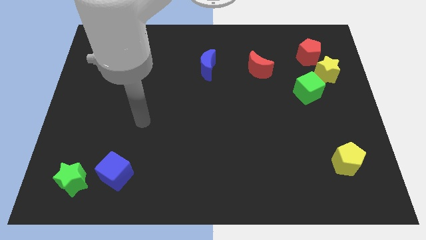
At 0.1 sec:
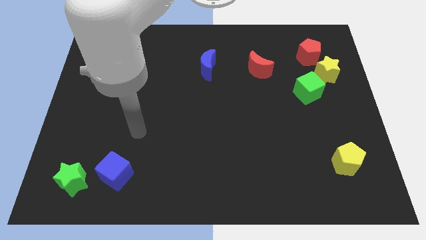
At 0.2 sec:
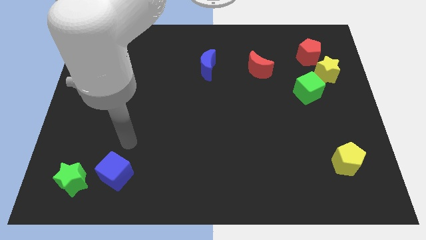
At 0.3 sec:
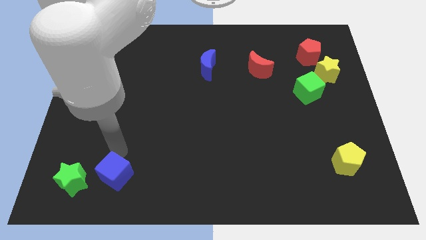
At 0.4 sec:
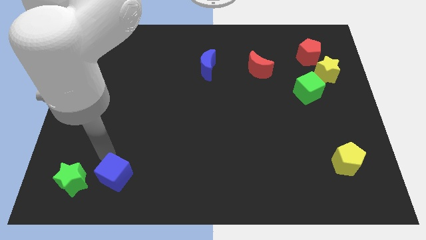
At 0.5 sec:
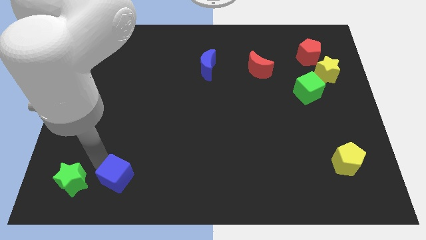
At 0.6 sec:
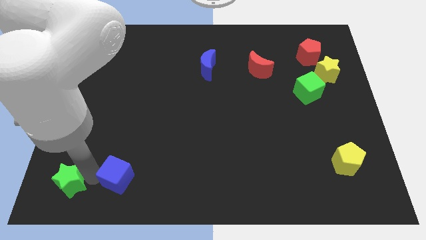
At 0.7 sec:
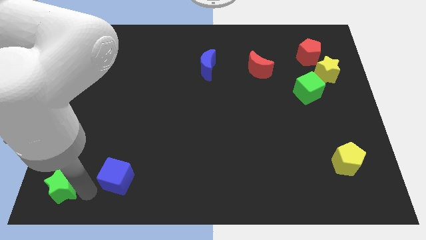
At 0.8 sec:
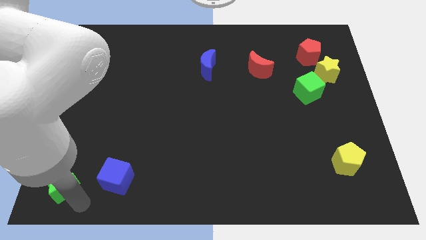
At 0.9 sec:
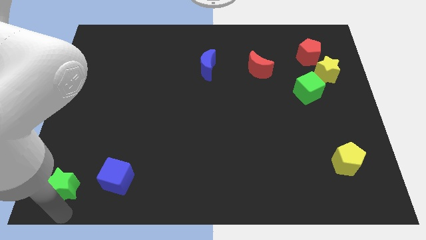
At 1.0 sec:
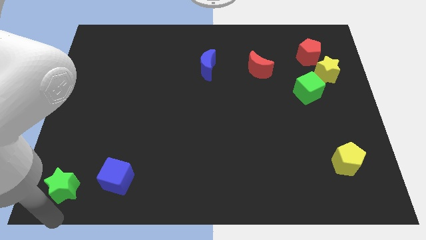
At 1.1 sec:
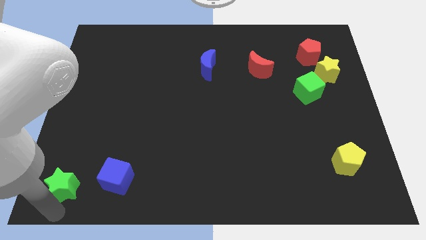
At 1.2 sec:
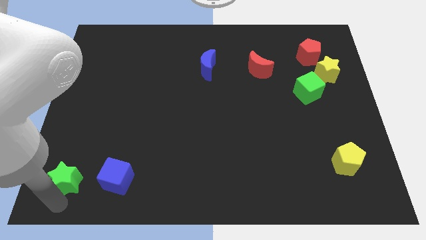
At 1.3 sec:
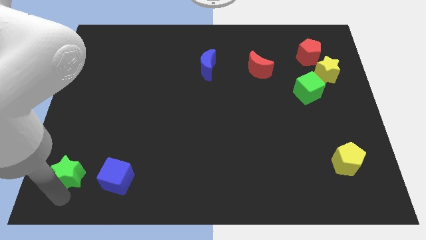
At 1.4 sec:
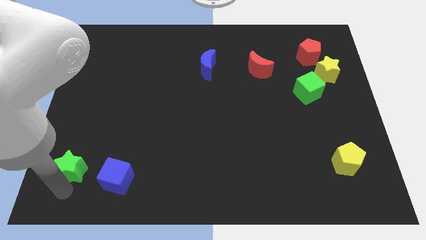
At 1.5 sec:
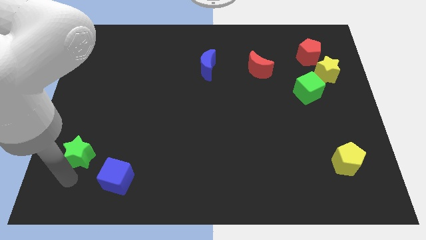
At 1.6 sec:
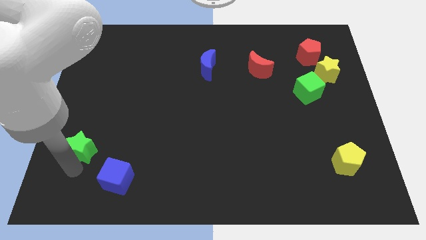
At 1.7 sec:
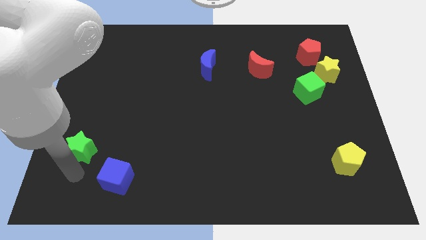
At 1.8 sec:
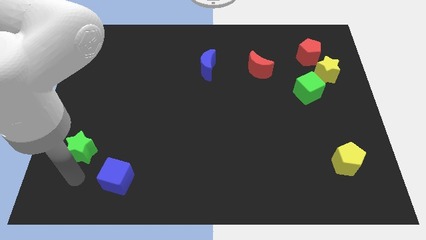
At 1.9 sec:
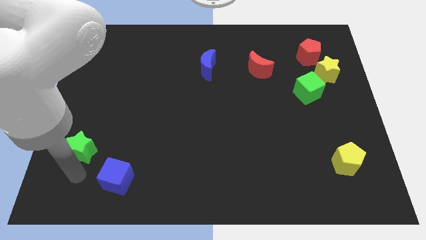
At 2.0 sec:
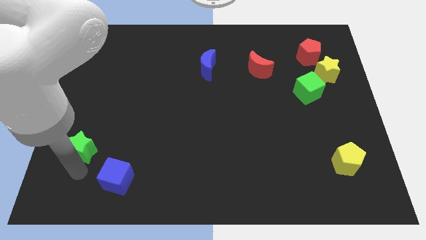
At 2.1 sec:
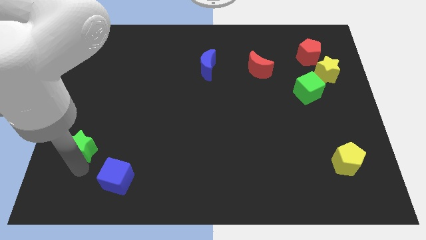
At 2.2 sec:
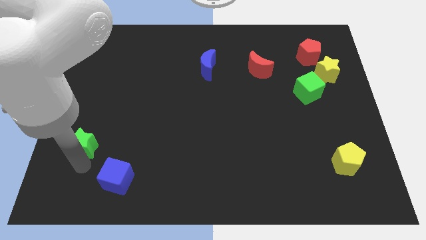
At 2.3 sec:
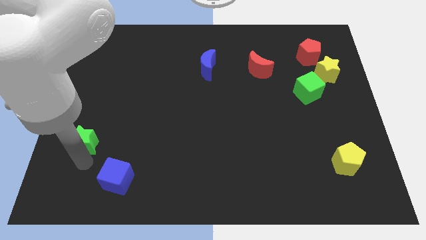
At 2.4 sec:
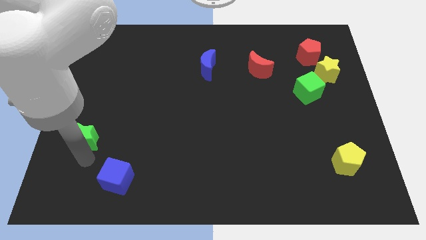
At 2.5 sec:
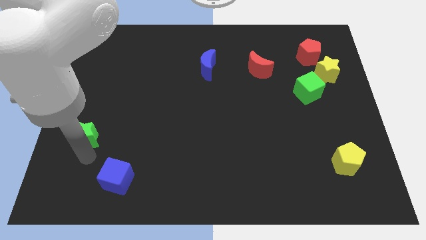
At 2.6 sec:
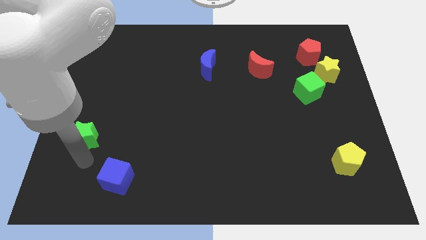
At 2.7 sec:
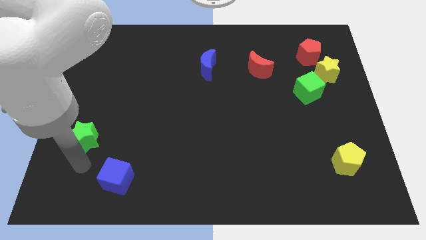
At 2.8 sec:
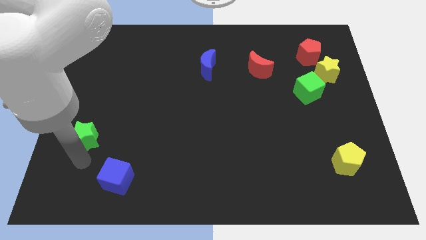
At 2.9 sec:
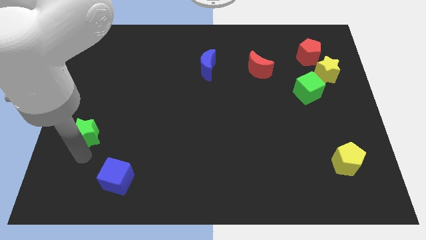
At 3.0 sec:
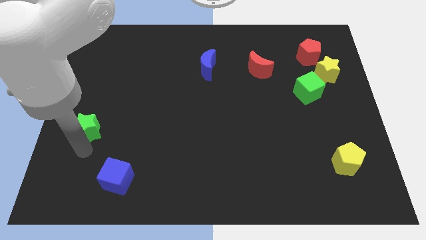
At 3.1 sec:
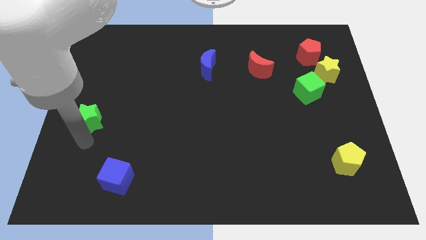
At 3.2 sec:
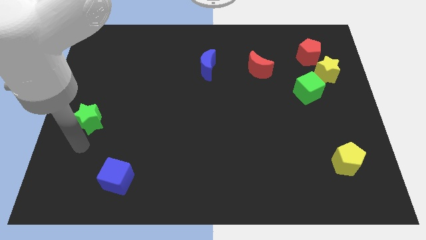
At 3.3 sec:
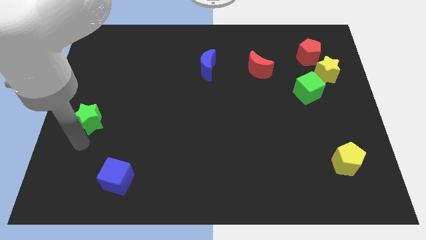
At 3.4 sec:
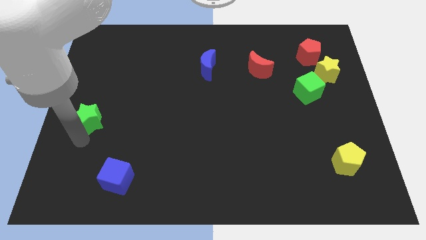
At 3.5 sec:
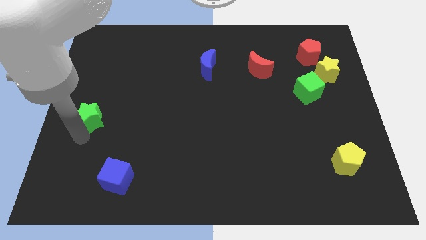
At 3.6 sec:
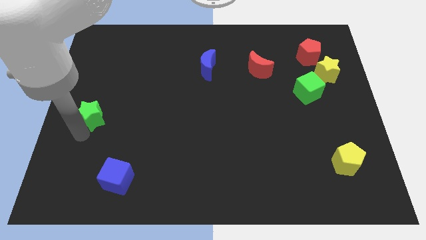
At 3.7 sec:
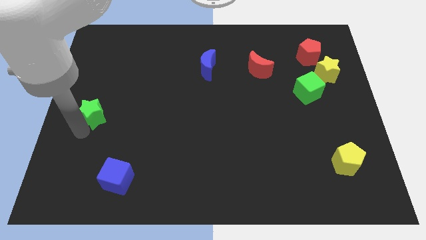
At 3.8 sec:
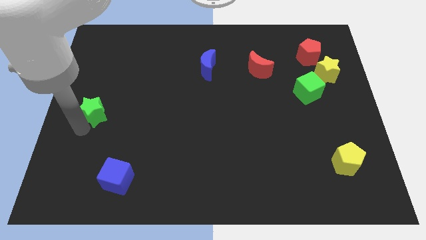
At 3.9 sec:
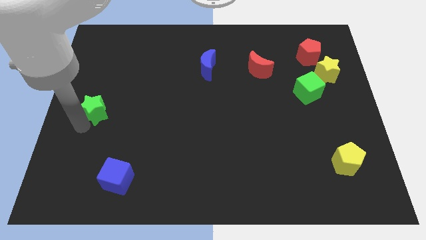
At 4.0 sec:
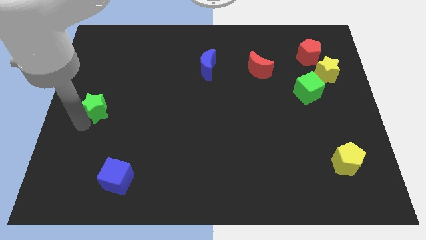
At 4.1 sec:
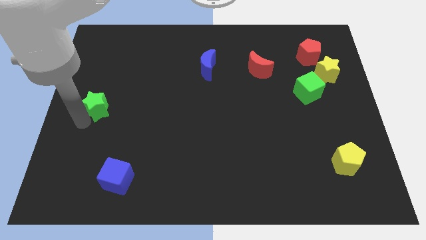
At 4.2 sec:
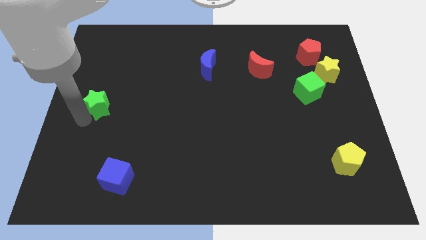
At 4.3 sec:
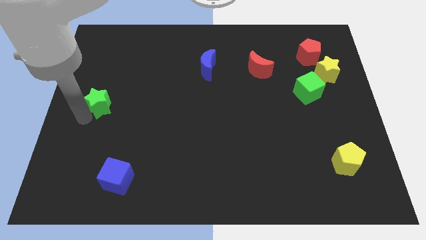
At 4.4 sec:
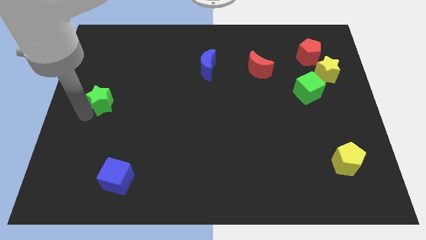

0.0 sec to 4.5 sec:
slide the green star upwards

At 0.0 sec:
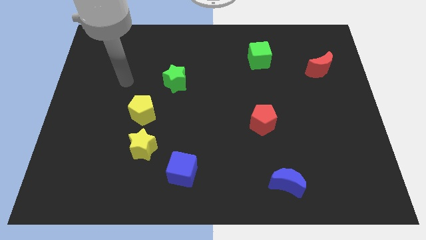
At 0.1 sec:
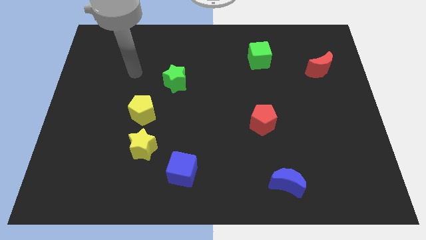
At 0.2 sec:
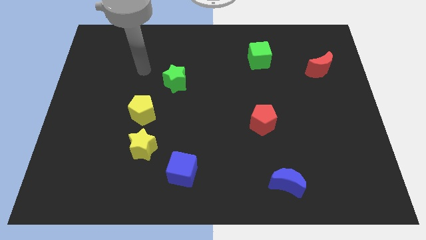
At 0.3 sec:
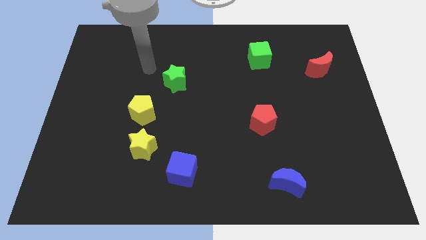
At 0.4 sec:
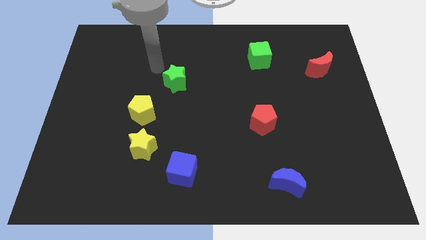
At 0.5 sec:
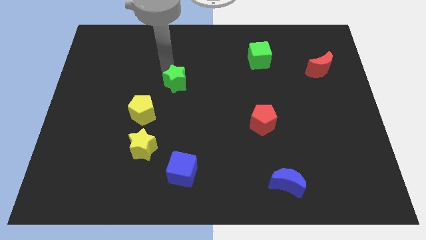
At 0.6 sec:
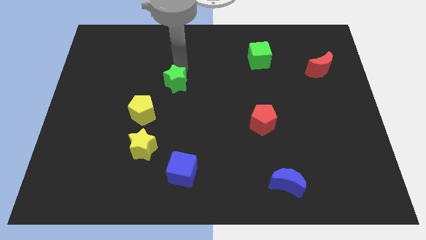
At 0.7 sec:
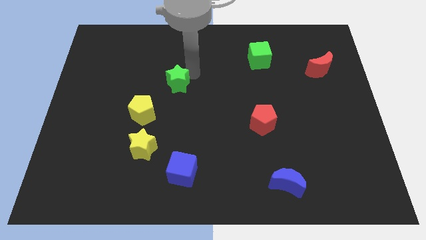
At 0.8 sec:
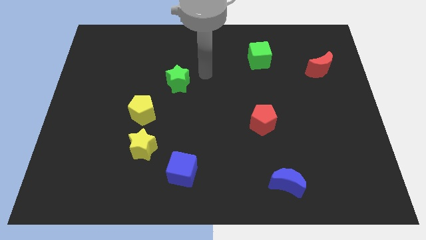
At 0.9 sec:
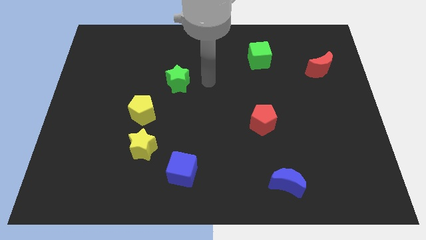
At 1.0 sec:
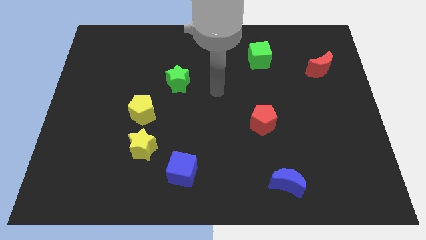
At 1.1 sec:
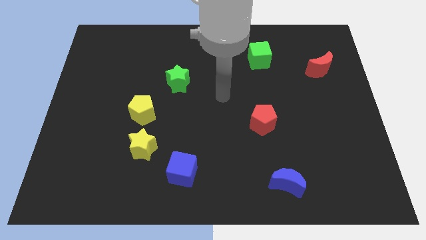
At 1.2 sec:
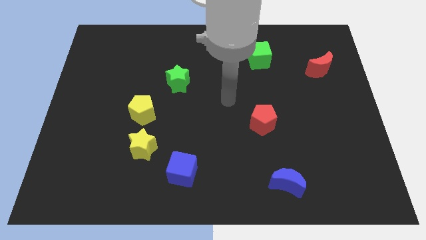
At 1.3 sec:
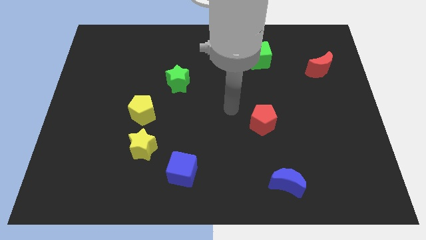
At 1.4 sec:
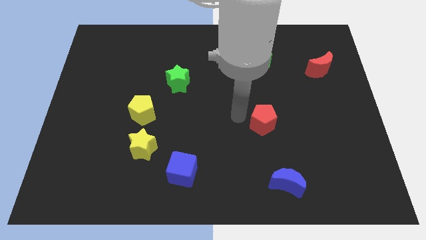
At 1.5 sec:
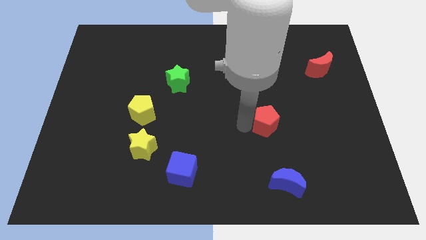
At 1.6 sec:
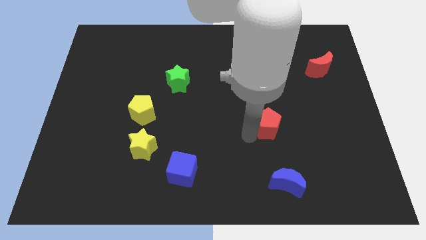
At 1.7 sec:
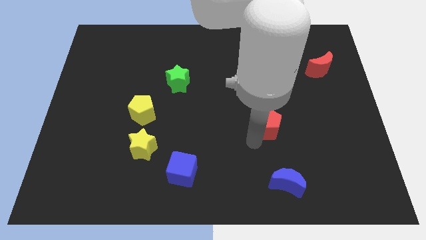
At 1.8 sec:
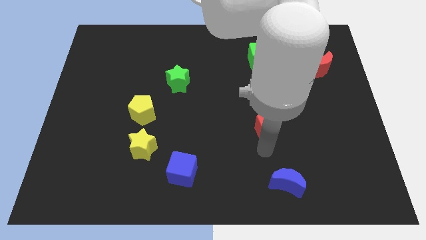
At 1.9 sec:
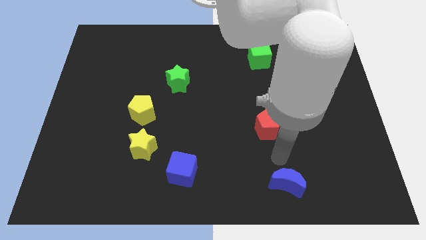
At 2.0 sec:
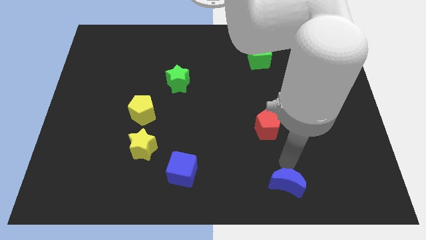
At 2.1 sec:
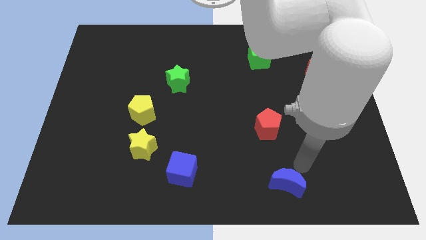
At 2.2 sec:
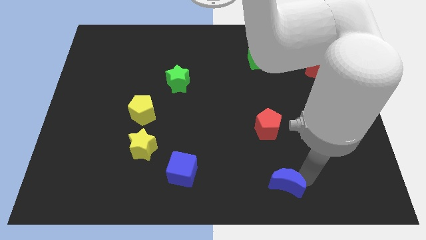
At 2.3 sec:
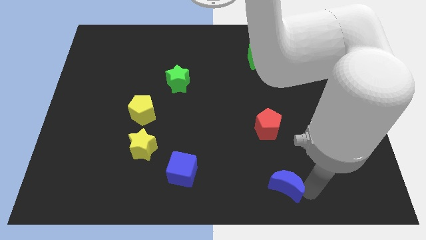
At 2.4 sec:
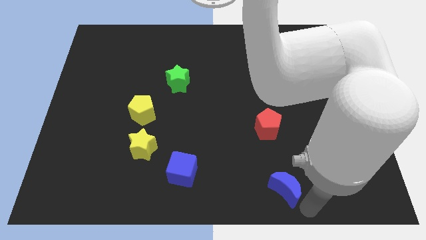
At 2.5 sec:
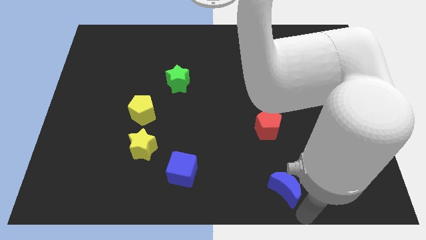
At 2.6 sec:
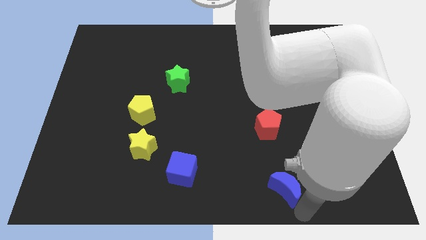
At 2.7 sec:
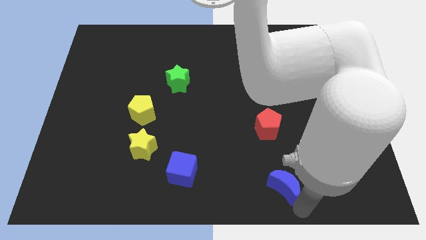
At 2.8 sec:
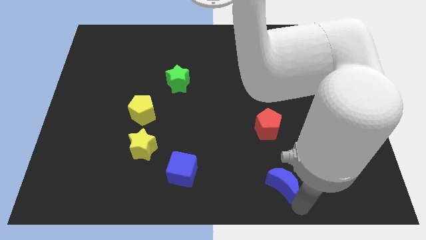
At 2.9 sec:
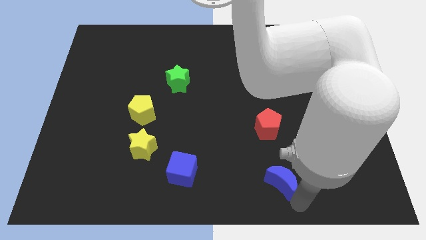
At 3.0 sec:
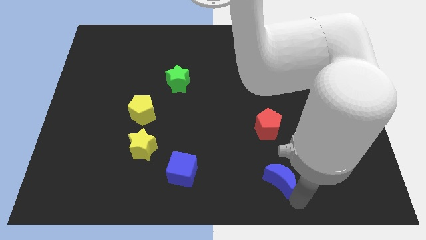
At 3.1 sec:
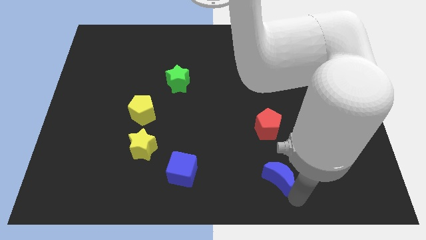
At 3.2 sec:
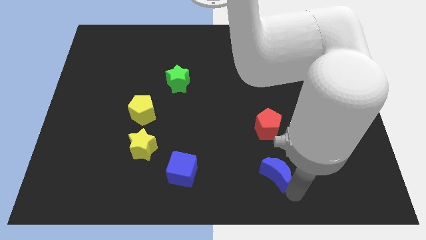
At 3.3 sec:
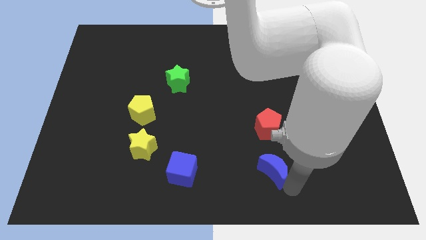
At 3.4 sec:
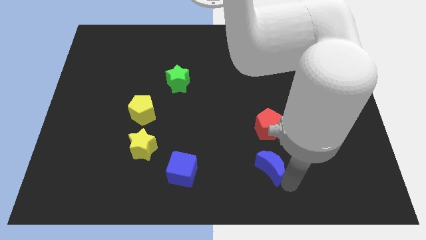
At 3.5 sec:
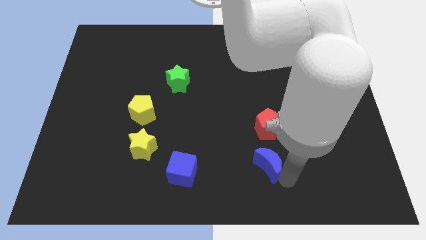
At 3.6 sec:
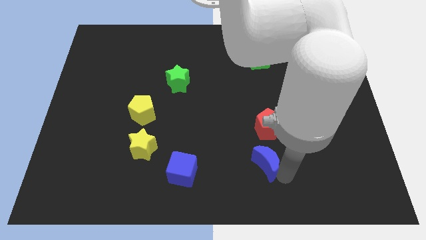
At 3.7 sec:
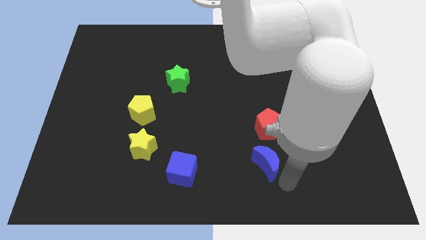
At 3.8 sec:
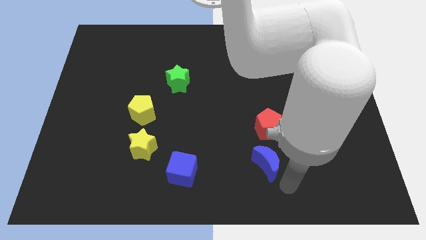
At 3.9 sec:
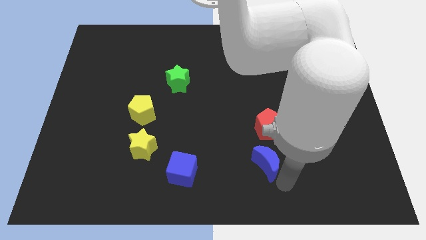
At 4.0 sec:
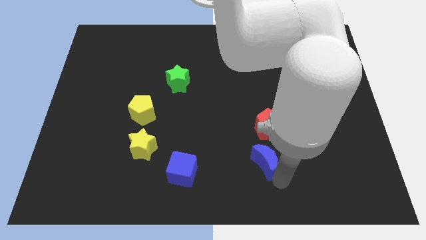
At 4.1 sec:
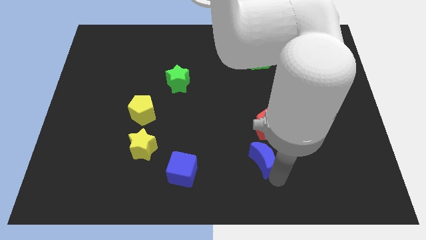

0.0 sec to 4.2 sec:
move the blue moon slightly diagonally upwards and to the left
